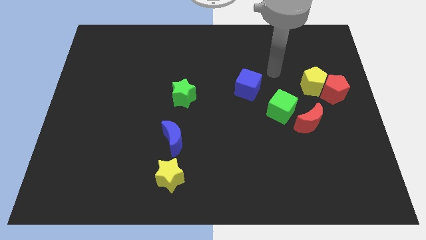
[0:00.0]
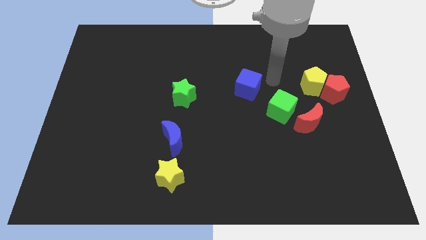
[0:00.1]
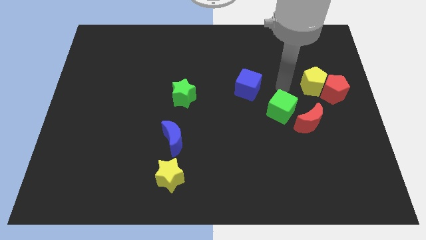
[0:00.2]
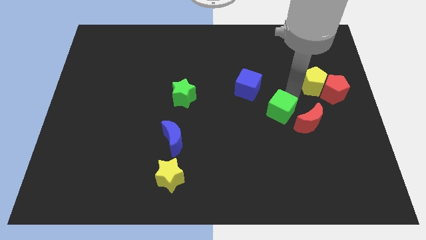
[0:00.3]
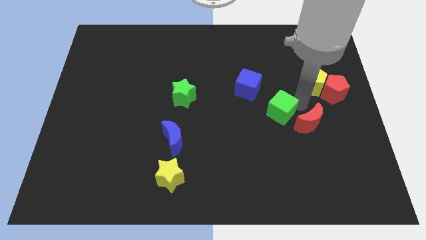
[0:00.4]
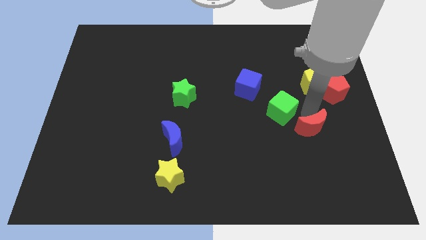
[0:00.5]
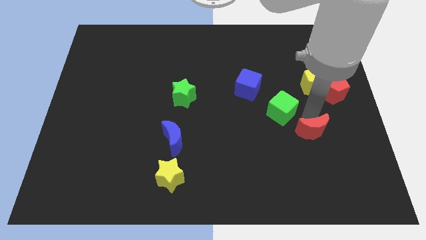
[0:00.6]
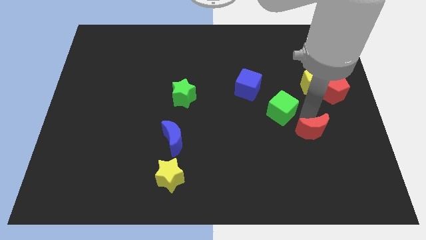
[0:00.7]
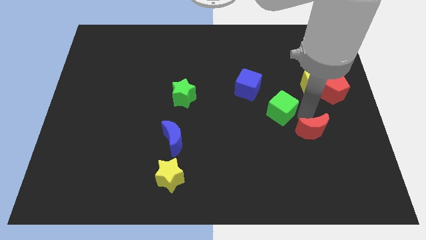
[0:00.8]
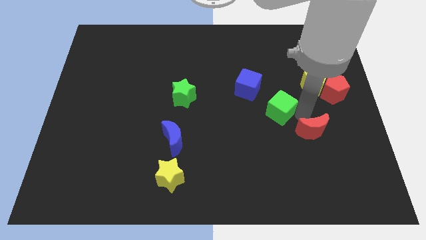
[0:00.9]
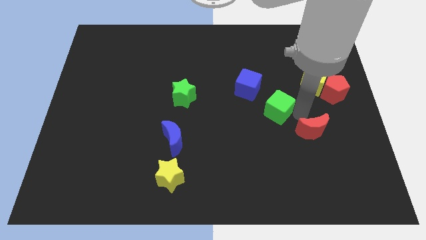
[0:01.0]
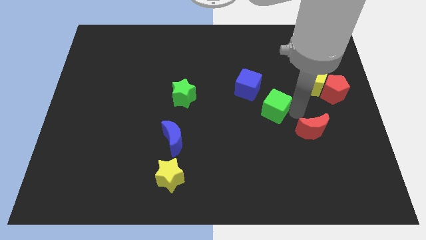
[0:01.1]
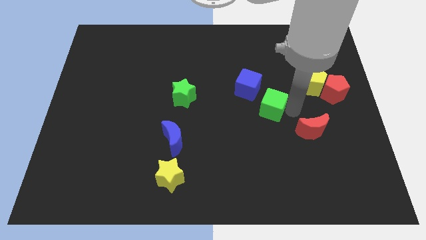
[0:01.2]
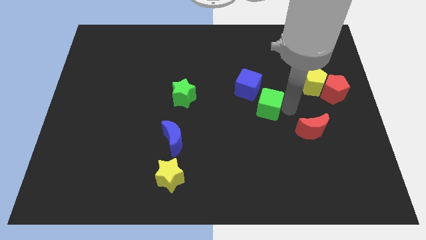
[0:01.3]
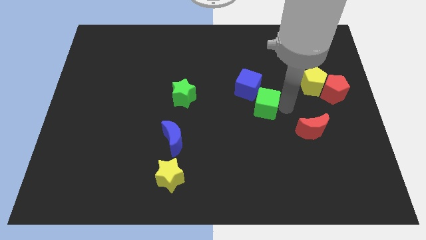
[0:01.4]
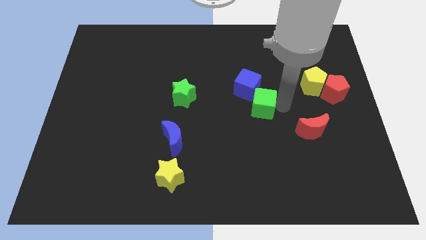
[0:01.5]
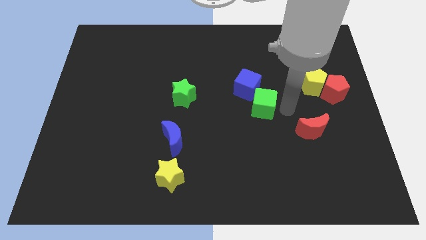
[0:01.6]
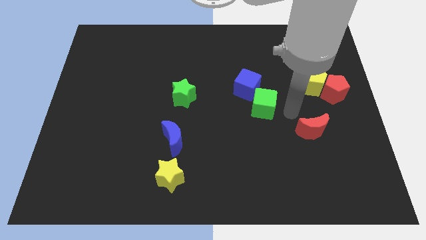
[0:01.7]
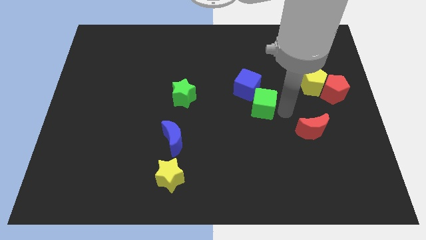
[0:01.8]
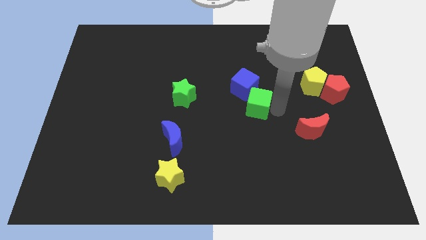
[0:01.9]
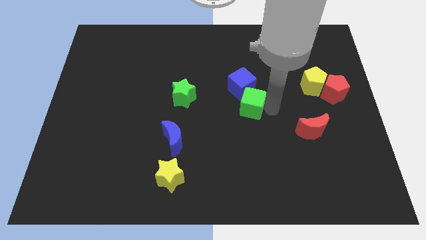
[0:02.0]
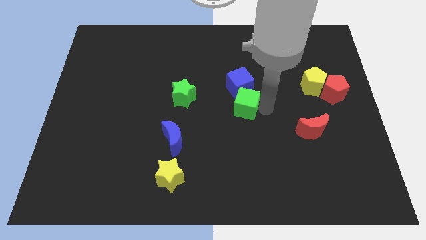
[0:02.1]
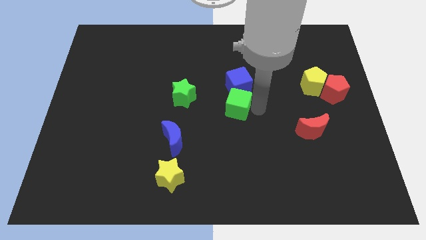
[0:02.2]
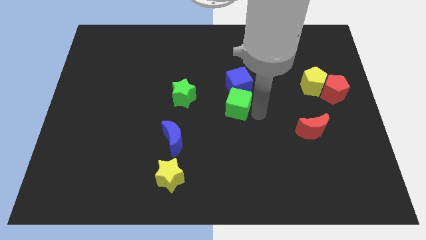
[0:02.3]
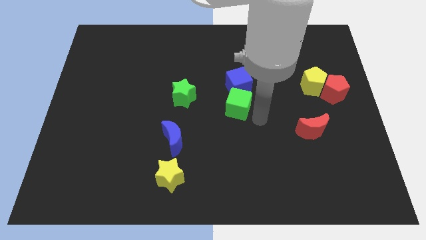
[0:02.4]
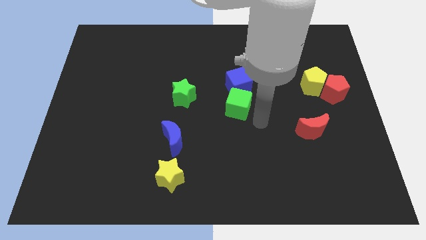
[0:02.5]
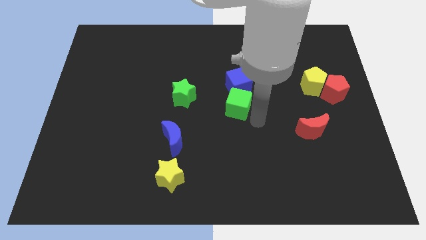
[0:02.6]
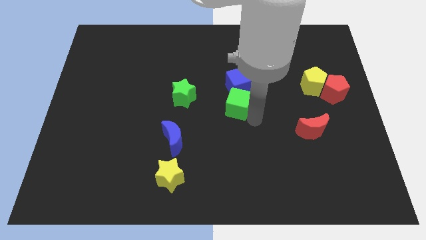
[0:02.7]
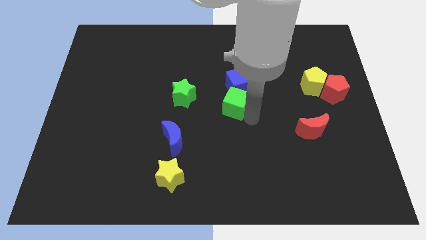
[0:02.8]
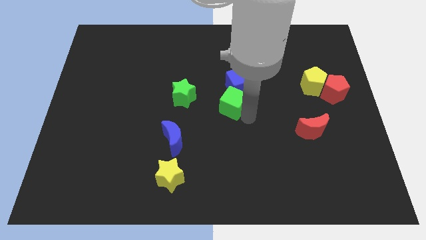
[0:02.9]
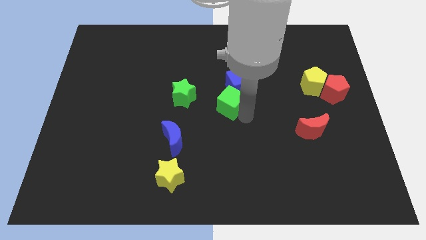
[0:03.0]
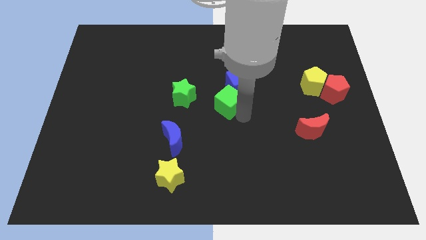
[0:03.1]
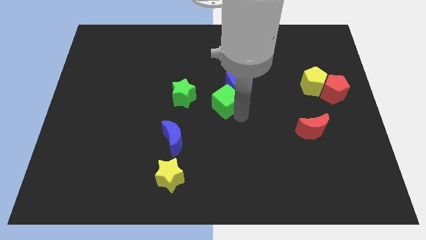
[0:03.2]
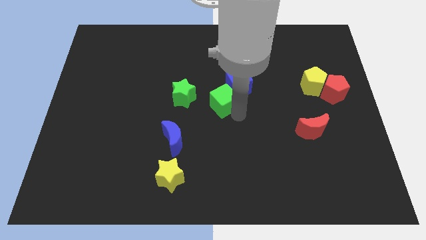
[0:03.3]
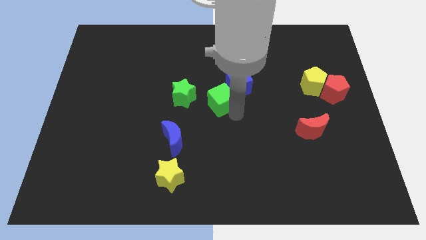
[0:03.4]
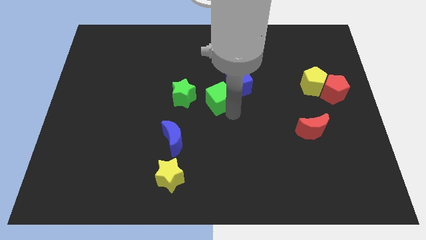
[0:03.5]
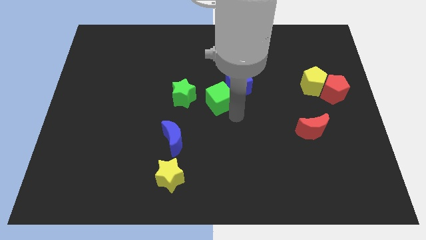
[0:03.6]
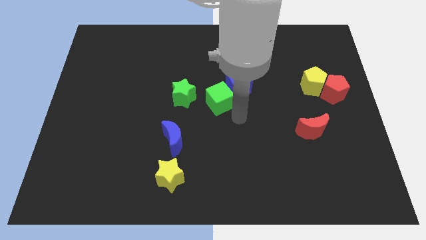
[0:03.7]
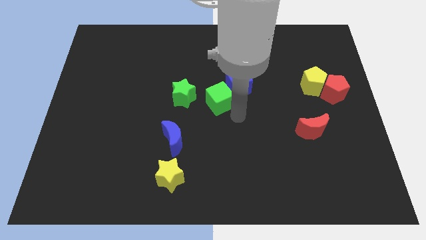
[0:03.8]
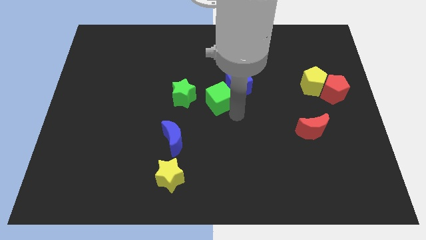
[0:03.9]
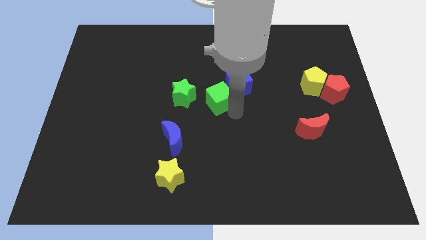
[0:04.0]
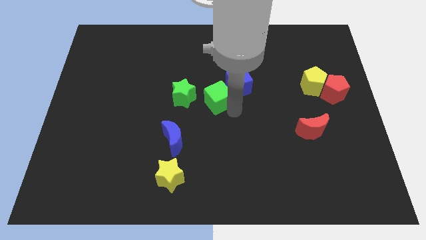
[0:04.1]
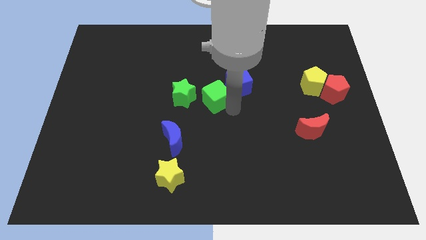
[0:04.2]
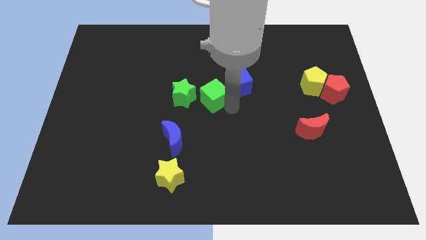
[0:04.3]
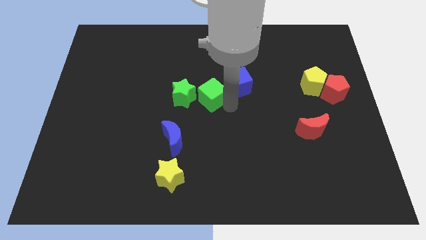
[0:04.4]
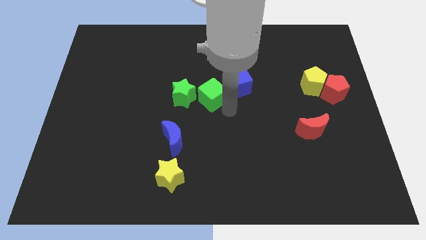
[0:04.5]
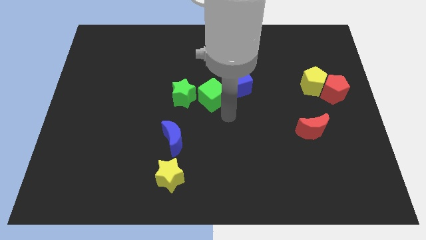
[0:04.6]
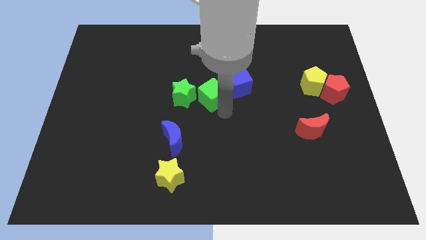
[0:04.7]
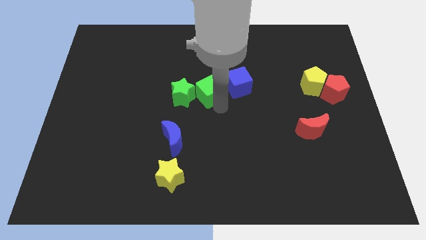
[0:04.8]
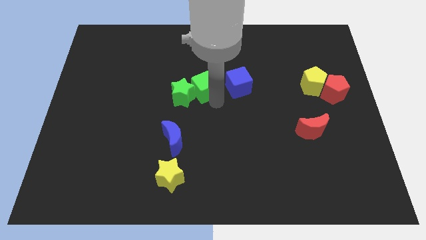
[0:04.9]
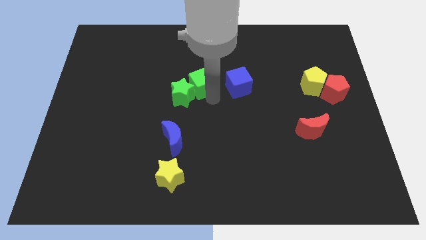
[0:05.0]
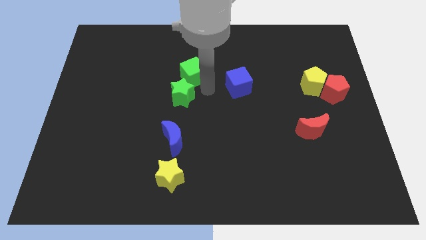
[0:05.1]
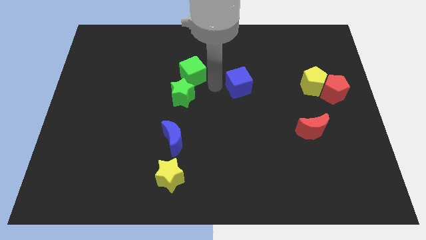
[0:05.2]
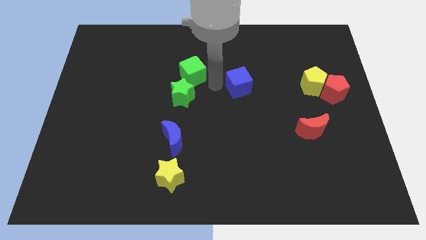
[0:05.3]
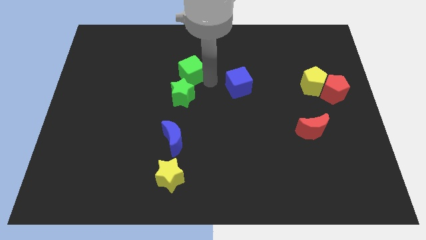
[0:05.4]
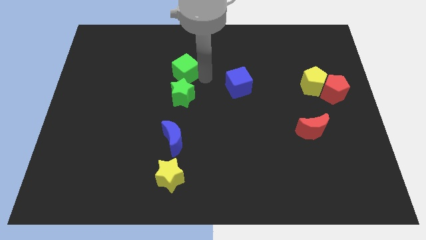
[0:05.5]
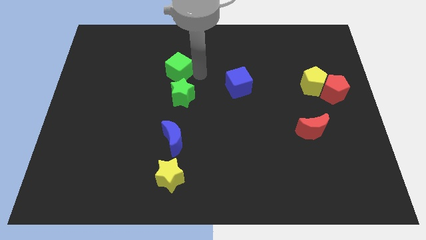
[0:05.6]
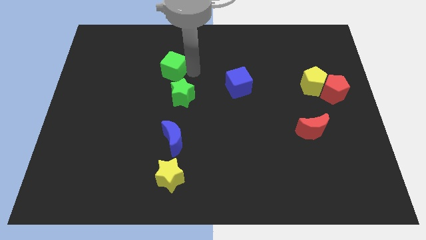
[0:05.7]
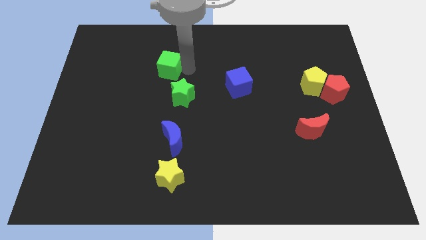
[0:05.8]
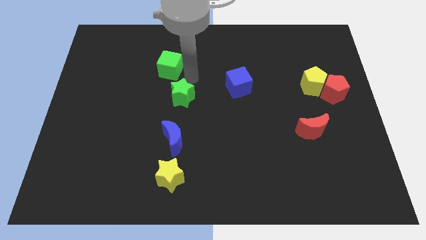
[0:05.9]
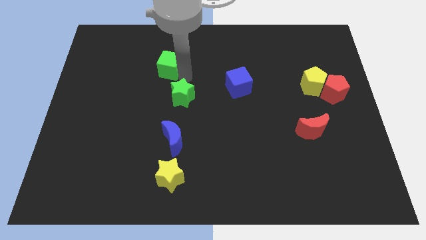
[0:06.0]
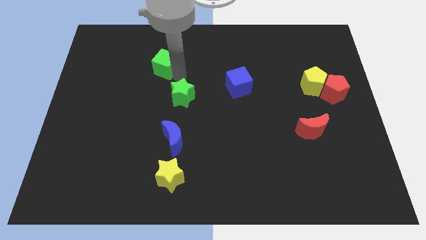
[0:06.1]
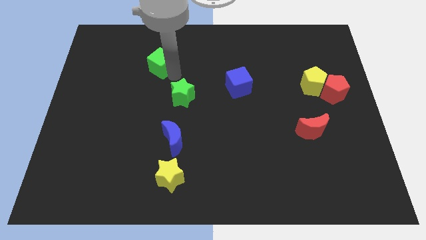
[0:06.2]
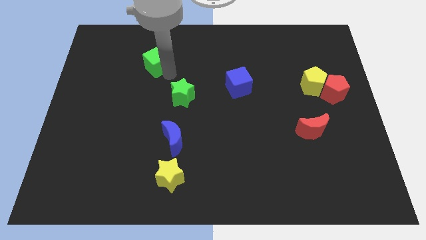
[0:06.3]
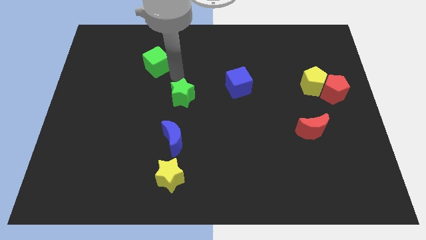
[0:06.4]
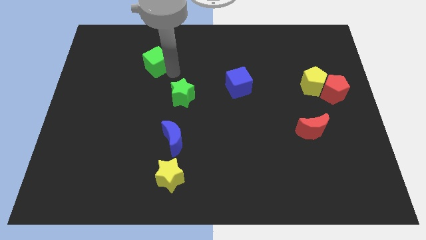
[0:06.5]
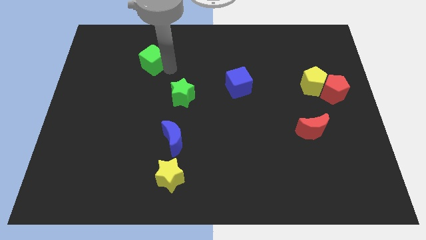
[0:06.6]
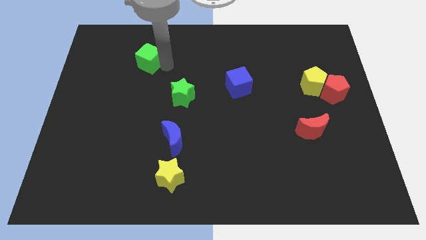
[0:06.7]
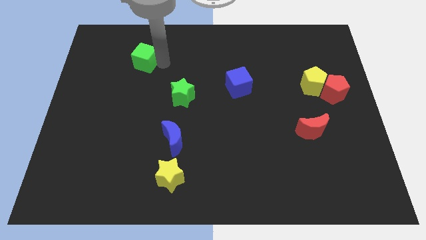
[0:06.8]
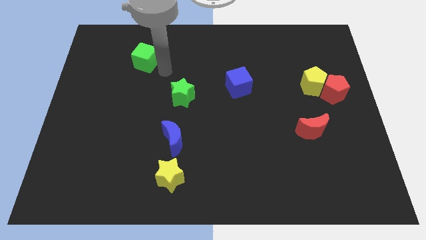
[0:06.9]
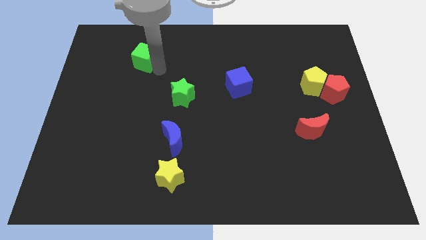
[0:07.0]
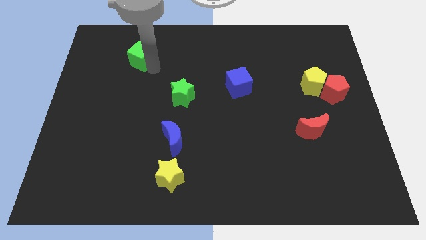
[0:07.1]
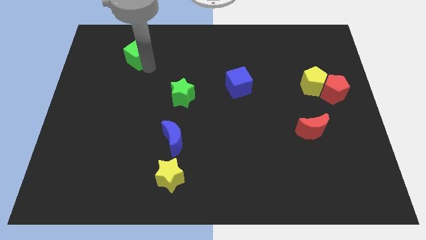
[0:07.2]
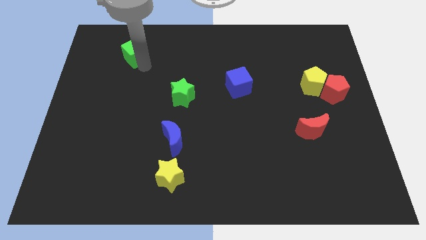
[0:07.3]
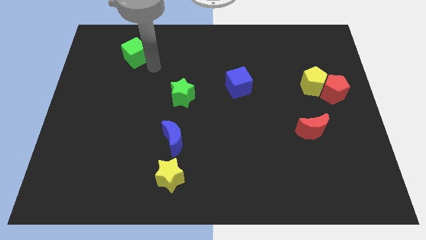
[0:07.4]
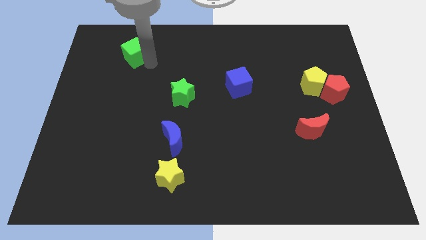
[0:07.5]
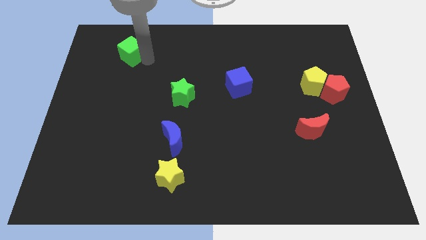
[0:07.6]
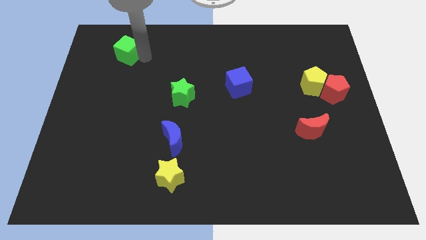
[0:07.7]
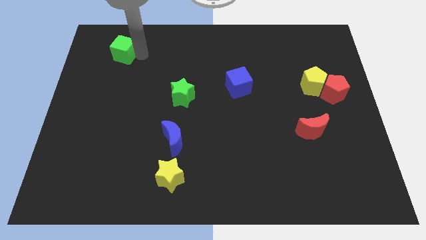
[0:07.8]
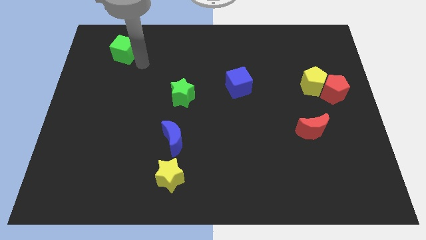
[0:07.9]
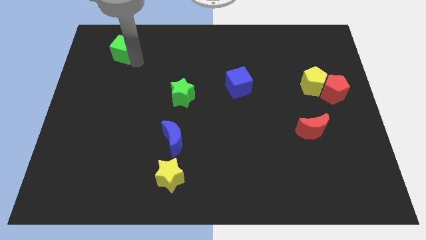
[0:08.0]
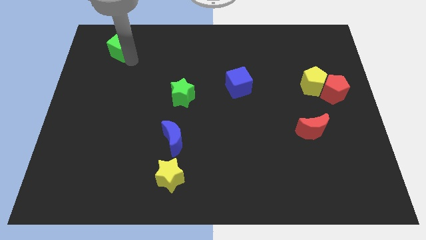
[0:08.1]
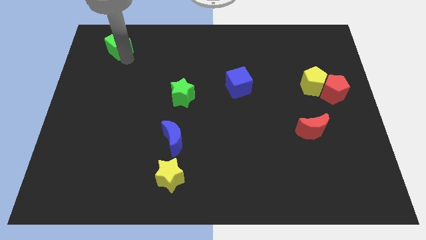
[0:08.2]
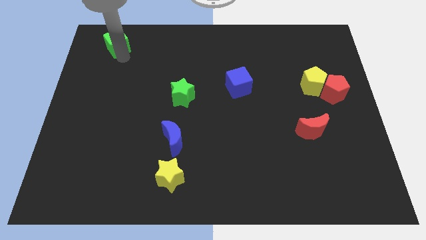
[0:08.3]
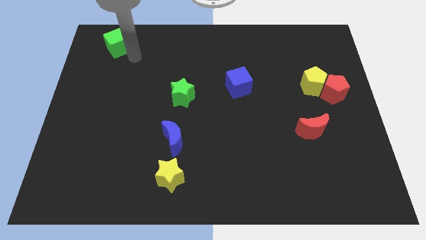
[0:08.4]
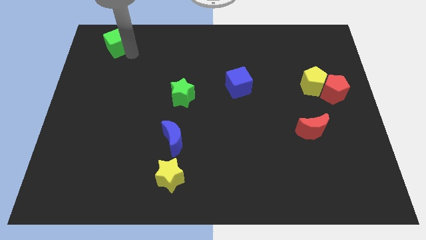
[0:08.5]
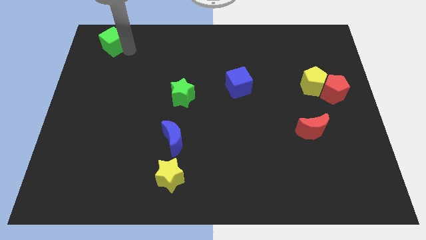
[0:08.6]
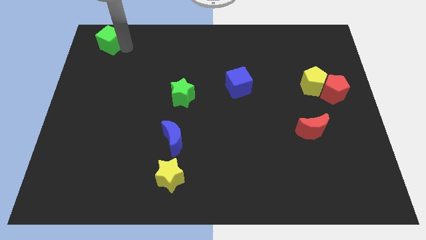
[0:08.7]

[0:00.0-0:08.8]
put the green cube to the upper left corner
